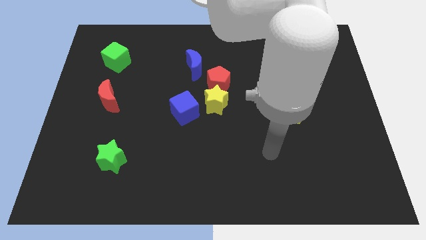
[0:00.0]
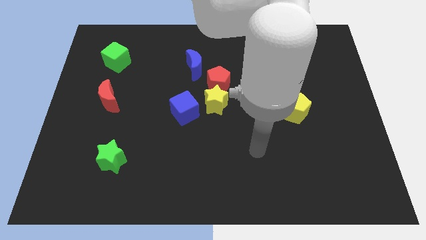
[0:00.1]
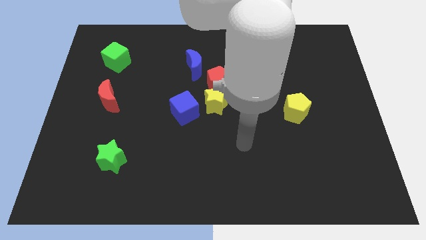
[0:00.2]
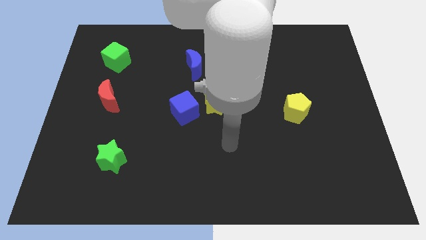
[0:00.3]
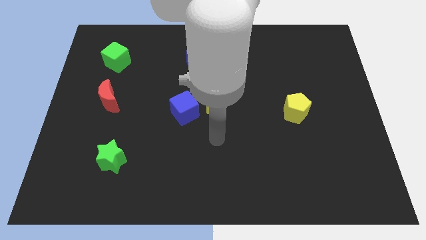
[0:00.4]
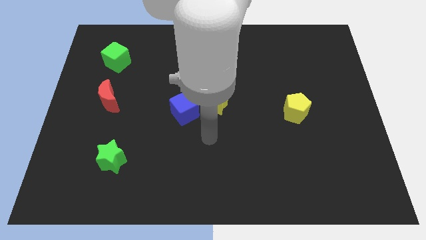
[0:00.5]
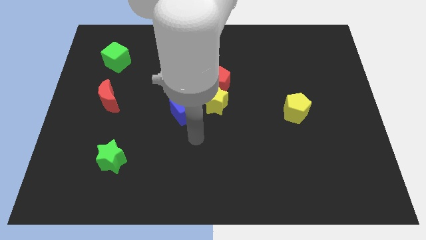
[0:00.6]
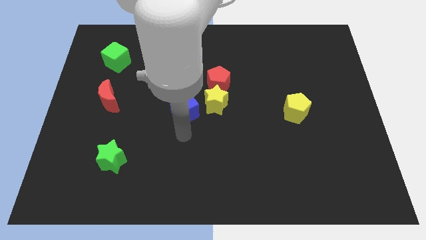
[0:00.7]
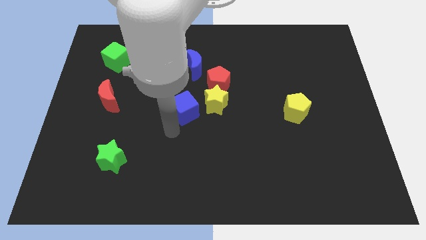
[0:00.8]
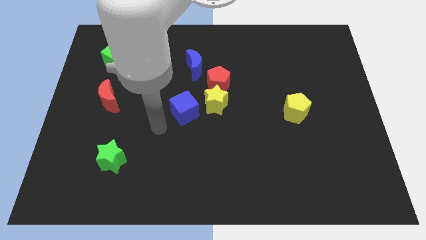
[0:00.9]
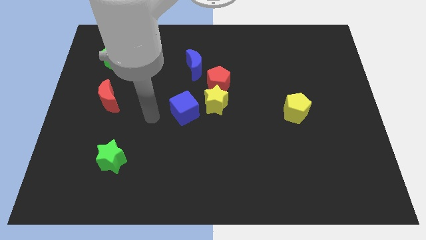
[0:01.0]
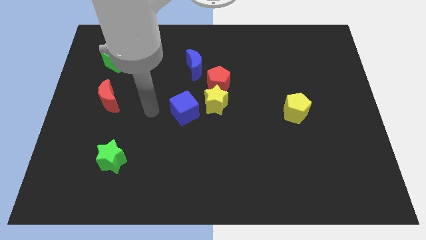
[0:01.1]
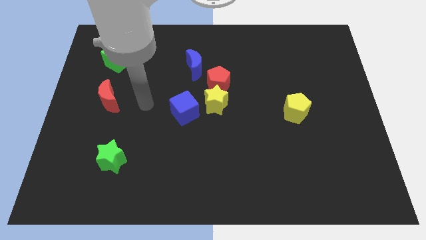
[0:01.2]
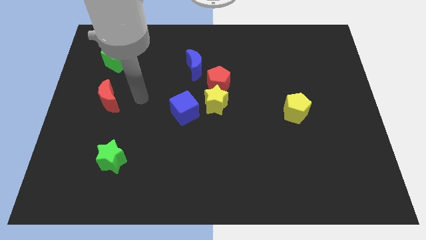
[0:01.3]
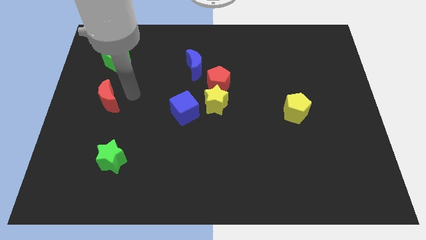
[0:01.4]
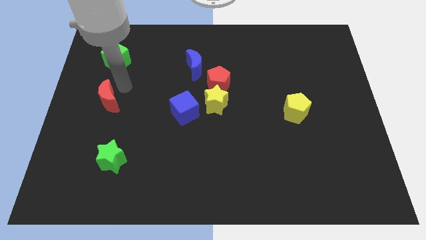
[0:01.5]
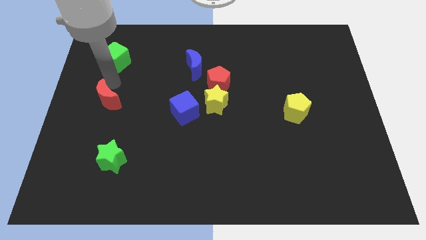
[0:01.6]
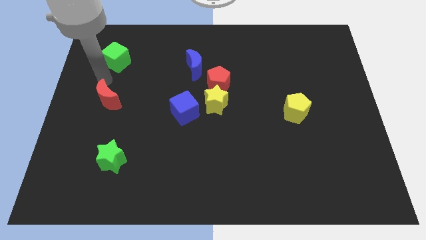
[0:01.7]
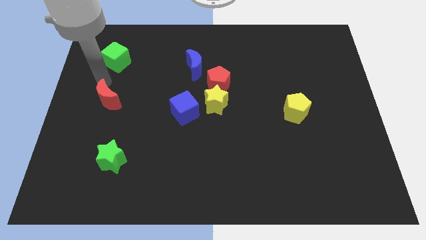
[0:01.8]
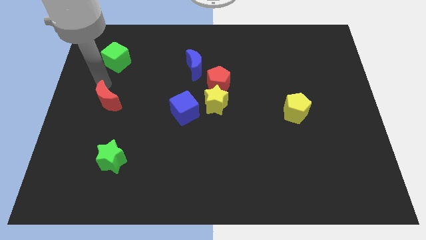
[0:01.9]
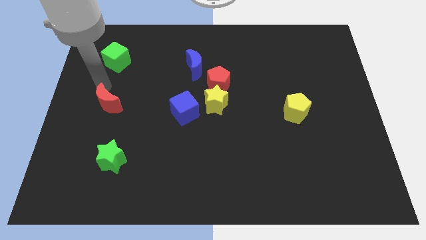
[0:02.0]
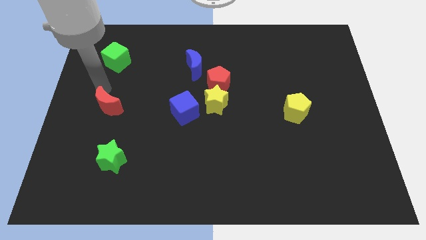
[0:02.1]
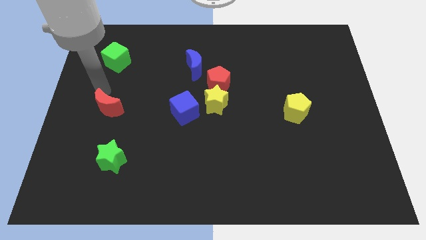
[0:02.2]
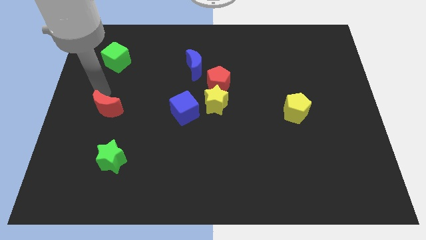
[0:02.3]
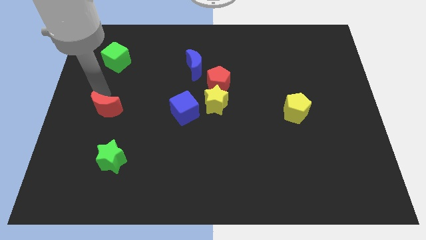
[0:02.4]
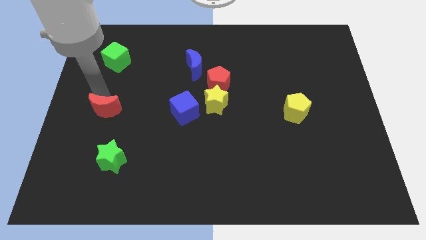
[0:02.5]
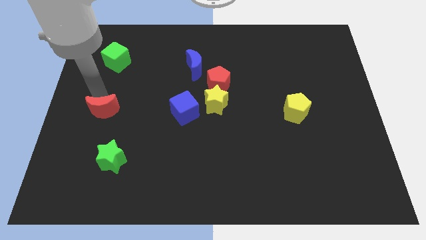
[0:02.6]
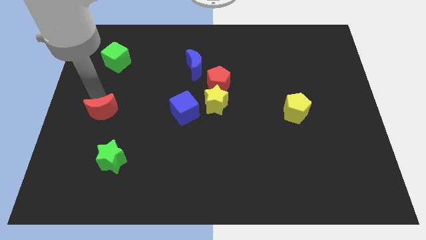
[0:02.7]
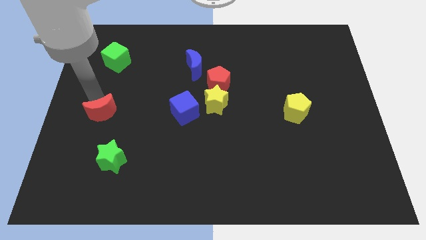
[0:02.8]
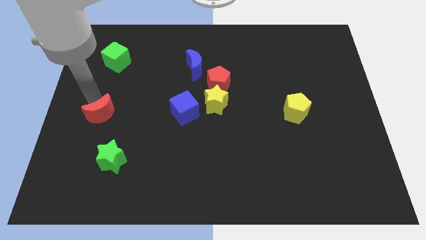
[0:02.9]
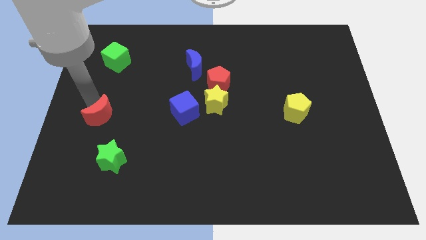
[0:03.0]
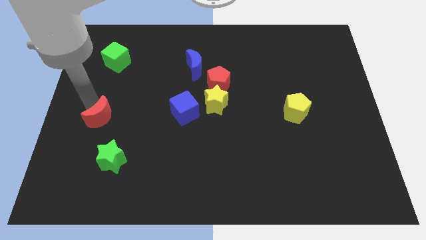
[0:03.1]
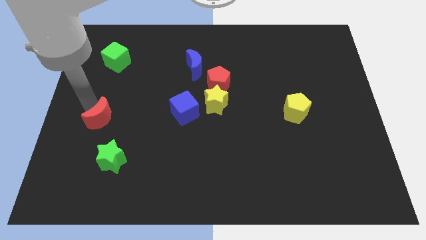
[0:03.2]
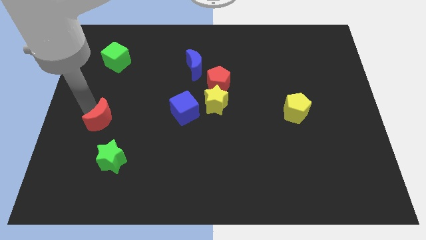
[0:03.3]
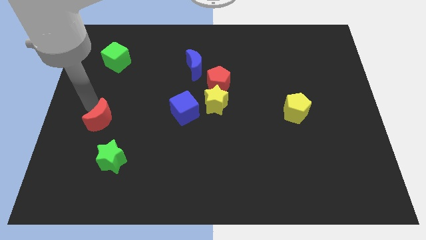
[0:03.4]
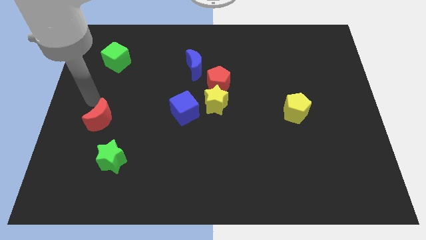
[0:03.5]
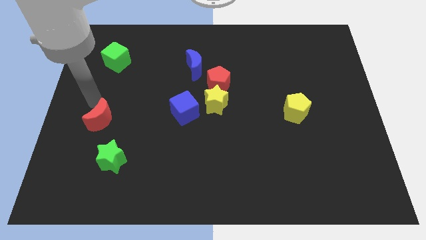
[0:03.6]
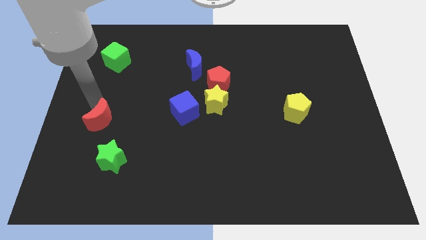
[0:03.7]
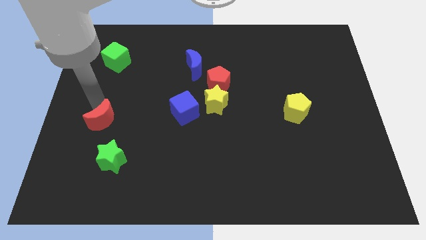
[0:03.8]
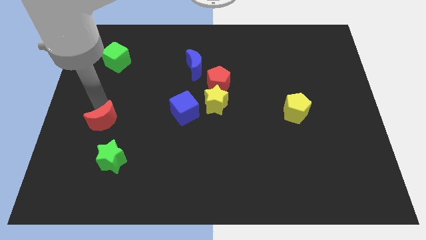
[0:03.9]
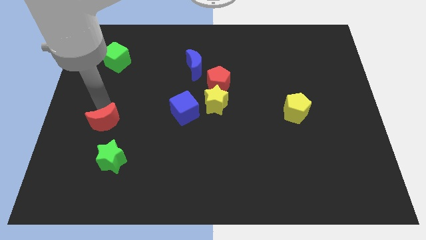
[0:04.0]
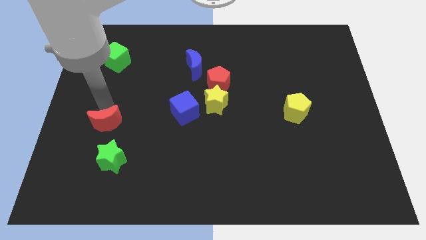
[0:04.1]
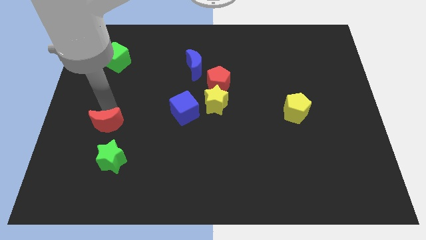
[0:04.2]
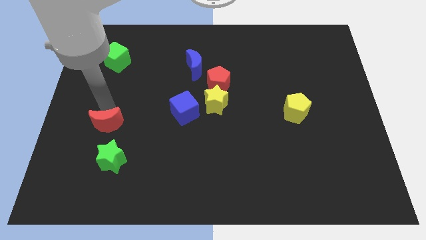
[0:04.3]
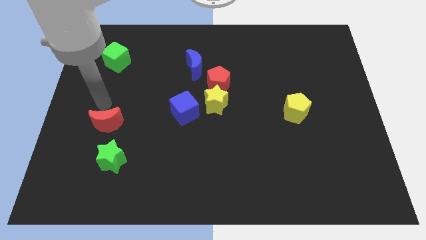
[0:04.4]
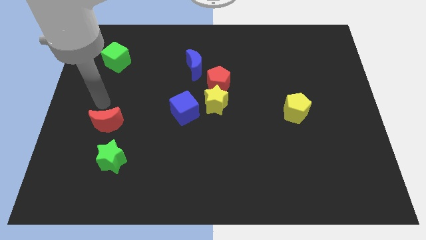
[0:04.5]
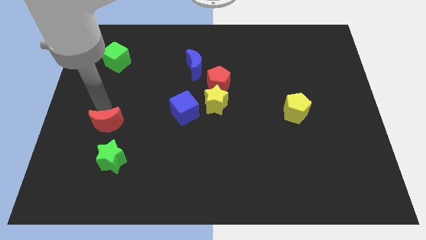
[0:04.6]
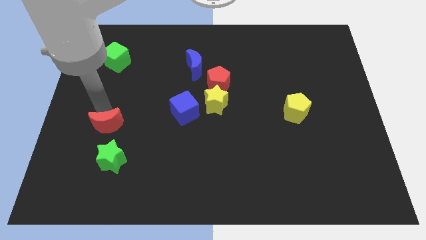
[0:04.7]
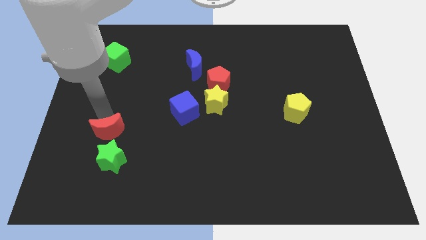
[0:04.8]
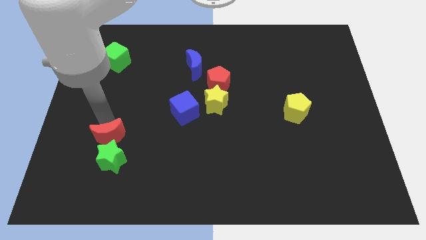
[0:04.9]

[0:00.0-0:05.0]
slide the red moon towards the green star

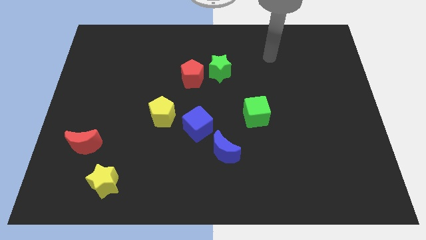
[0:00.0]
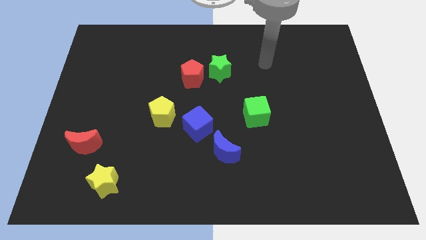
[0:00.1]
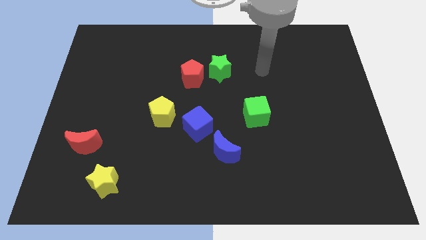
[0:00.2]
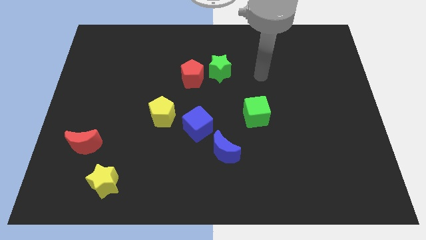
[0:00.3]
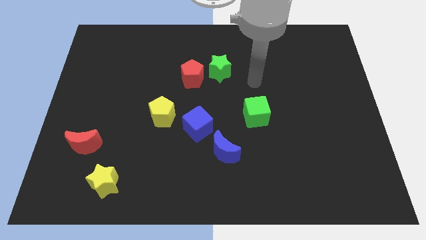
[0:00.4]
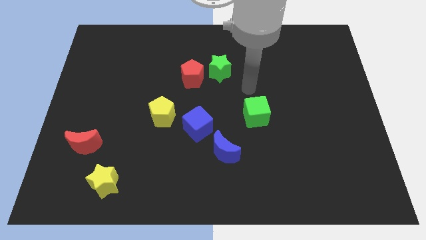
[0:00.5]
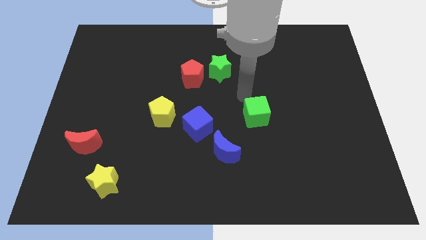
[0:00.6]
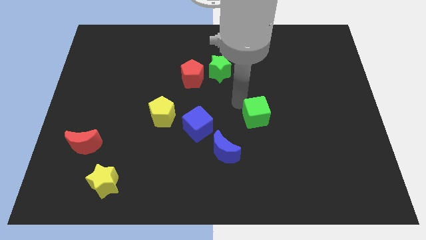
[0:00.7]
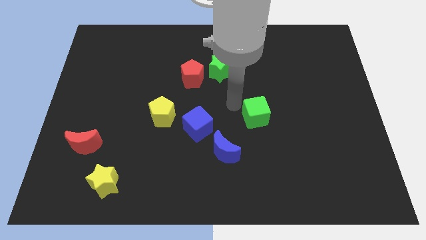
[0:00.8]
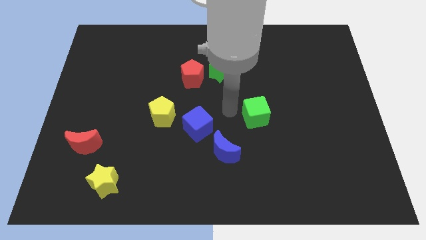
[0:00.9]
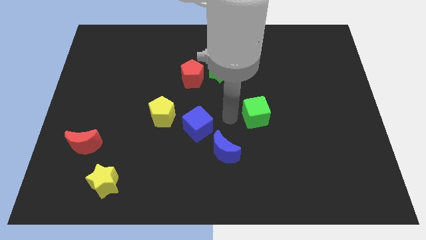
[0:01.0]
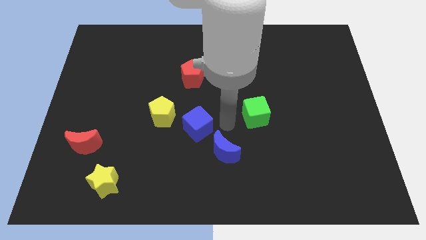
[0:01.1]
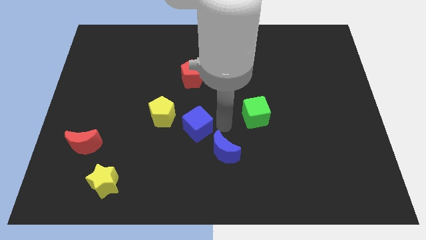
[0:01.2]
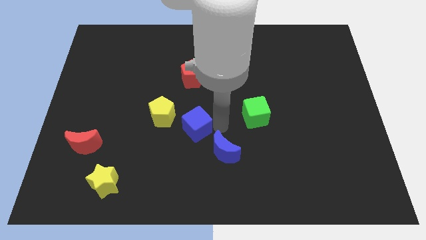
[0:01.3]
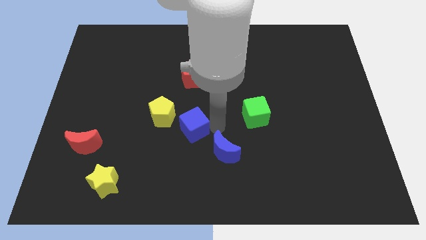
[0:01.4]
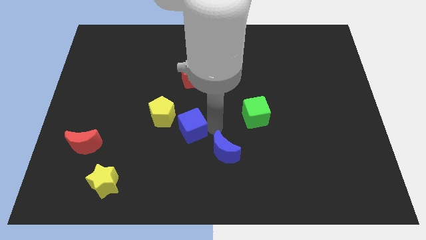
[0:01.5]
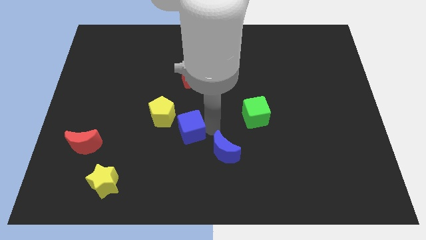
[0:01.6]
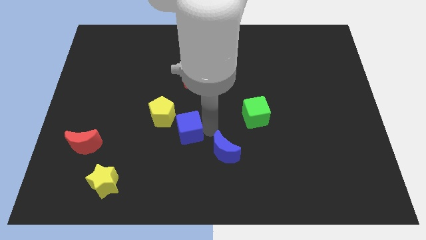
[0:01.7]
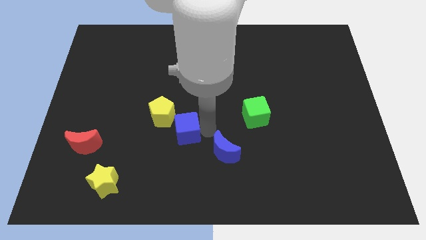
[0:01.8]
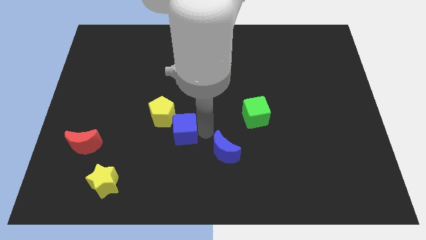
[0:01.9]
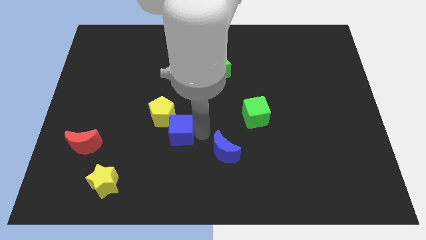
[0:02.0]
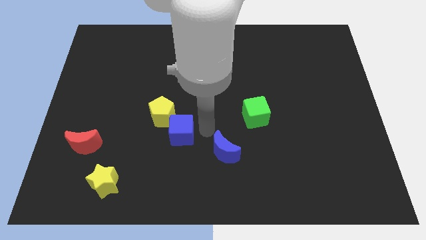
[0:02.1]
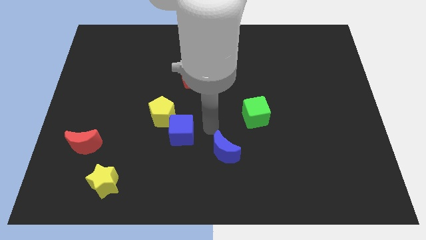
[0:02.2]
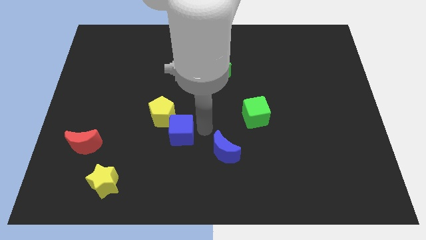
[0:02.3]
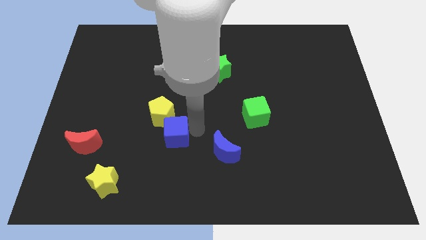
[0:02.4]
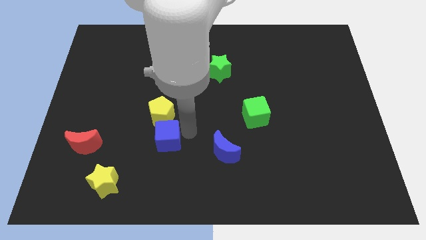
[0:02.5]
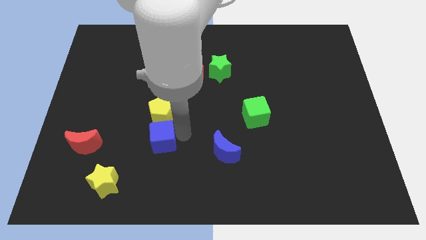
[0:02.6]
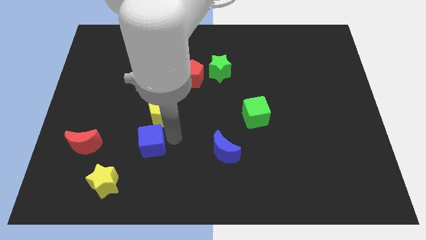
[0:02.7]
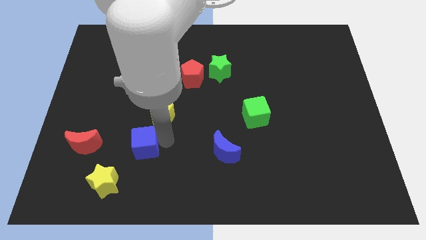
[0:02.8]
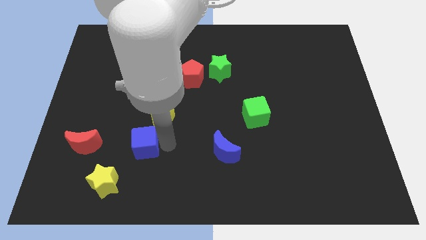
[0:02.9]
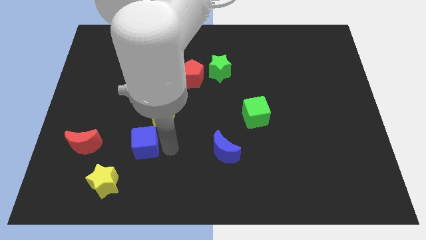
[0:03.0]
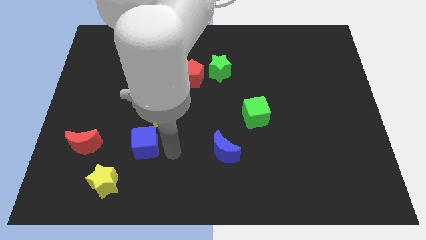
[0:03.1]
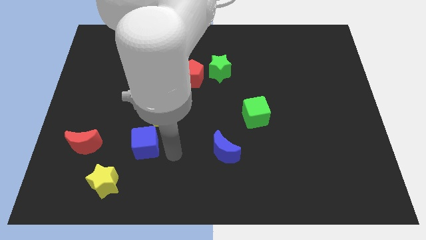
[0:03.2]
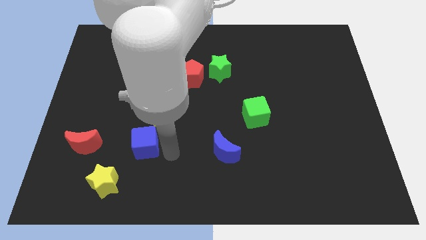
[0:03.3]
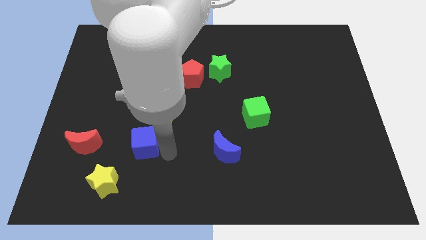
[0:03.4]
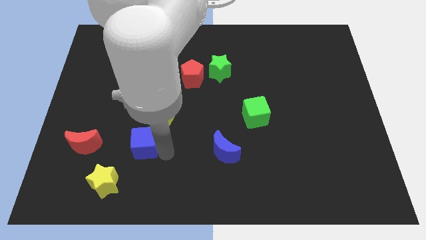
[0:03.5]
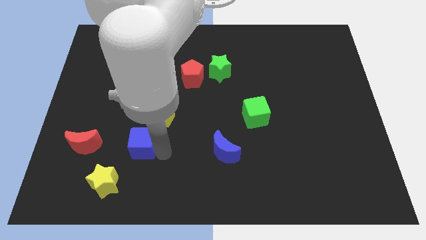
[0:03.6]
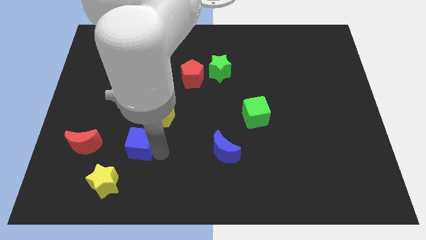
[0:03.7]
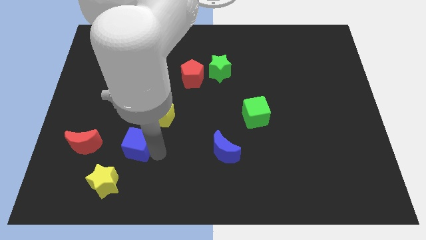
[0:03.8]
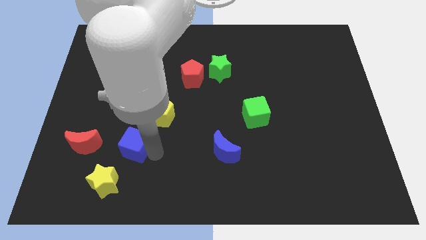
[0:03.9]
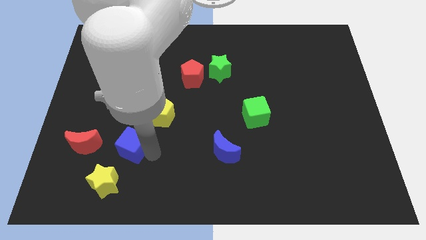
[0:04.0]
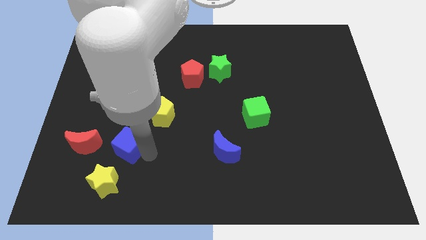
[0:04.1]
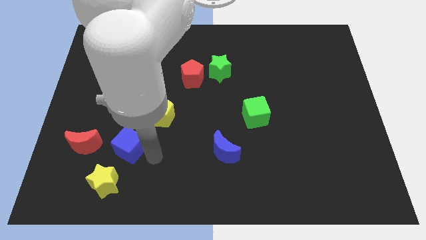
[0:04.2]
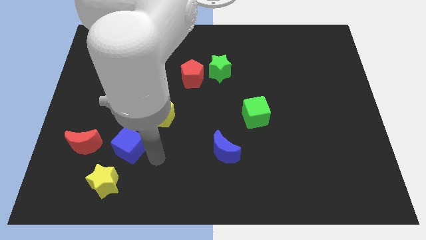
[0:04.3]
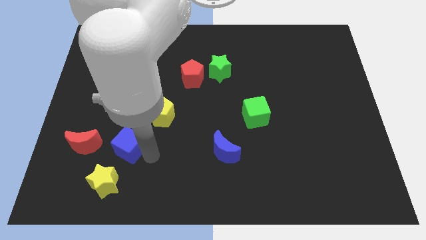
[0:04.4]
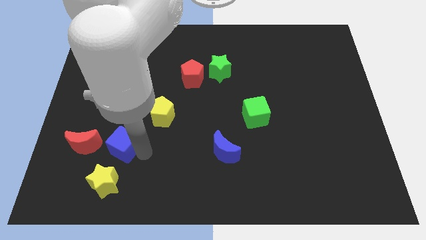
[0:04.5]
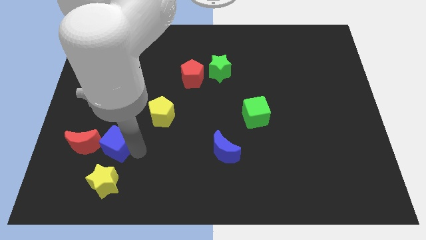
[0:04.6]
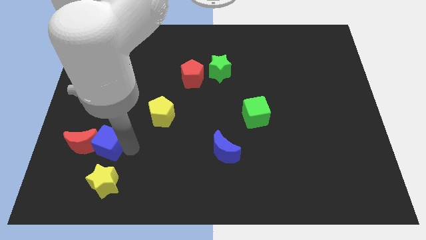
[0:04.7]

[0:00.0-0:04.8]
put the blue cube next to the red moon
